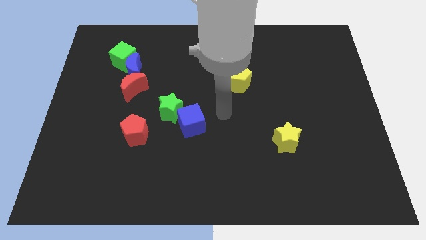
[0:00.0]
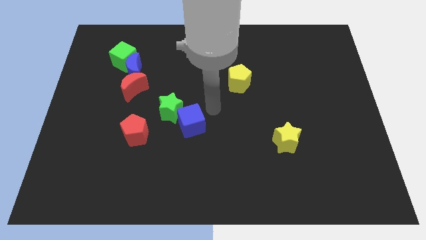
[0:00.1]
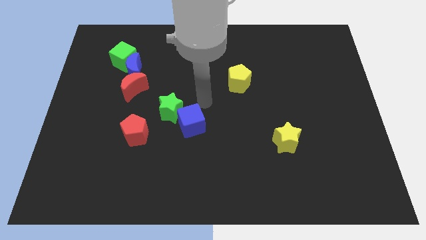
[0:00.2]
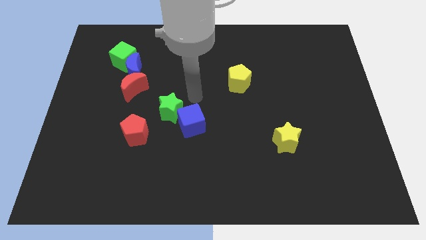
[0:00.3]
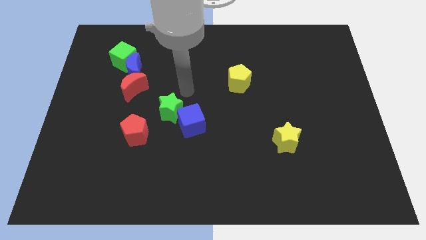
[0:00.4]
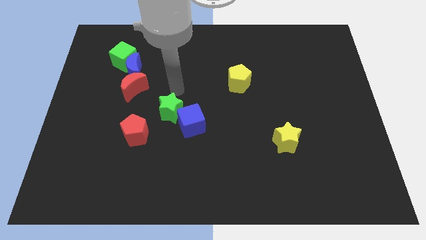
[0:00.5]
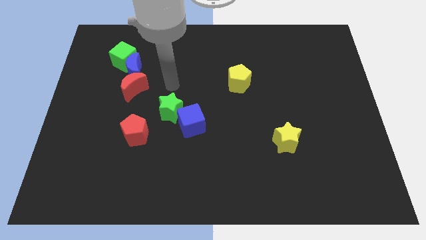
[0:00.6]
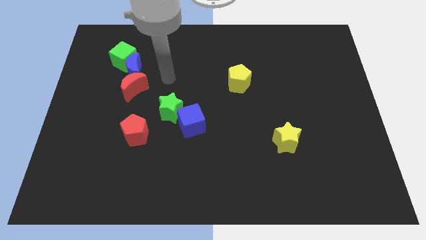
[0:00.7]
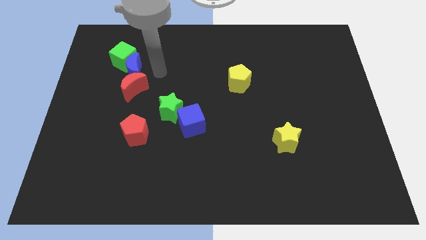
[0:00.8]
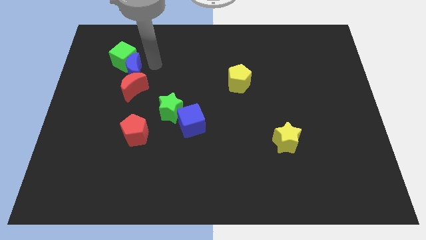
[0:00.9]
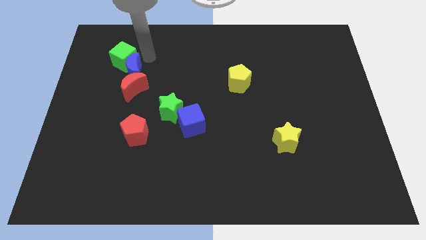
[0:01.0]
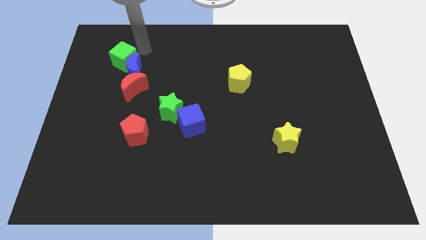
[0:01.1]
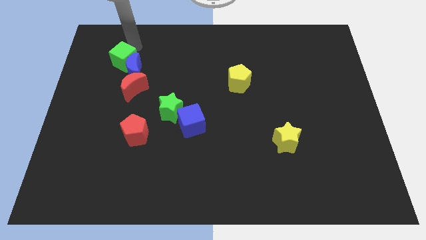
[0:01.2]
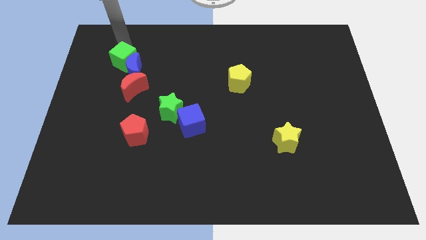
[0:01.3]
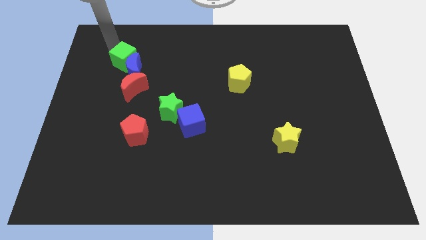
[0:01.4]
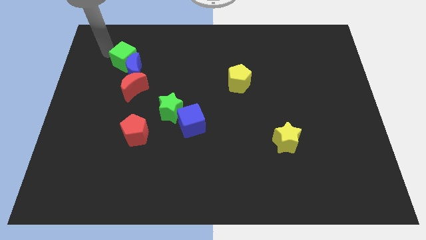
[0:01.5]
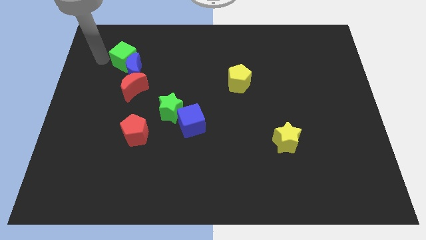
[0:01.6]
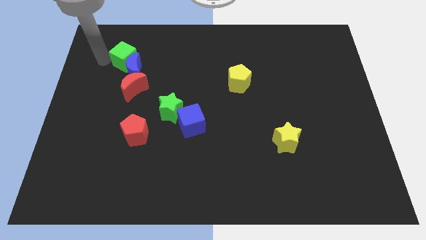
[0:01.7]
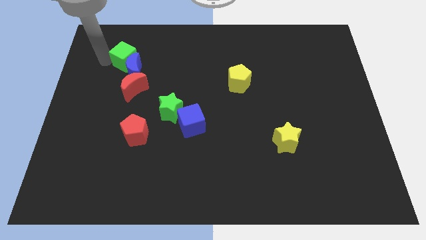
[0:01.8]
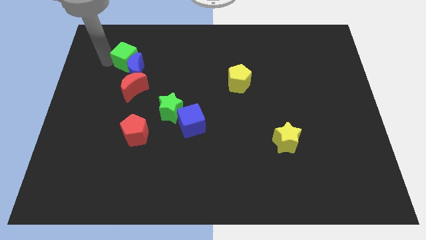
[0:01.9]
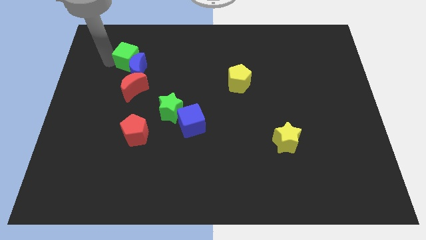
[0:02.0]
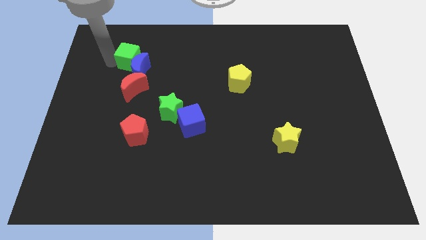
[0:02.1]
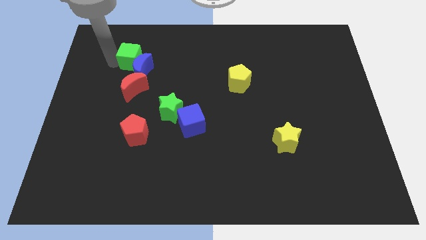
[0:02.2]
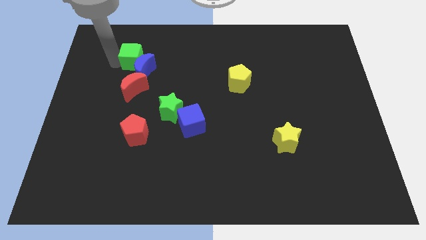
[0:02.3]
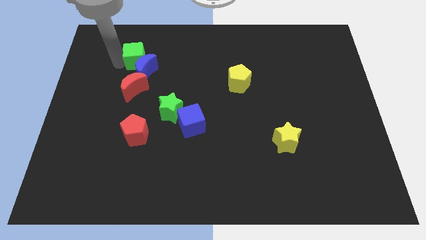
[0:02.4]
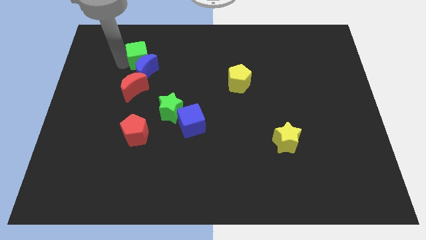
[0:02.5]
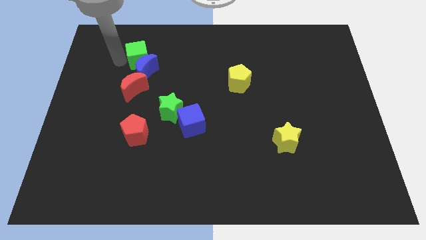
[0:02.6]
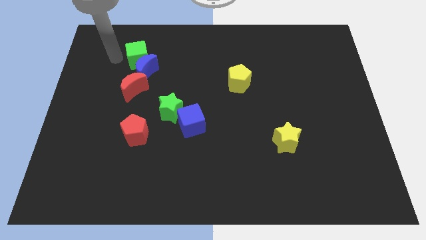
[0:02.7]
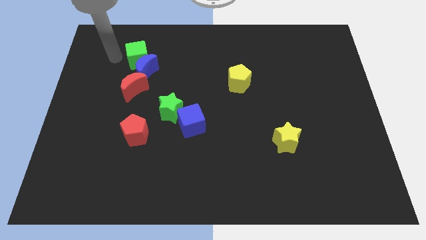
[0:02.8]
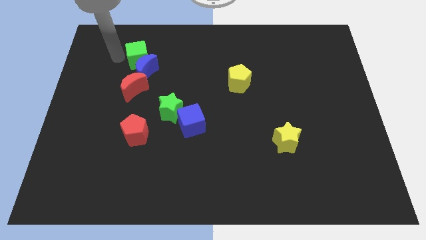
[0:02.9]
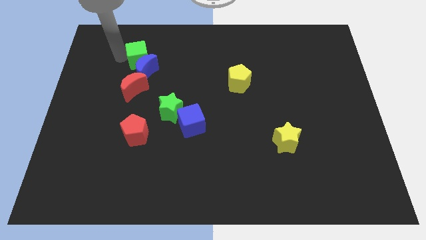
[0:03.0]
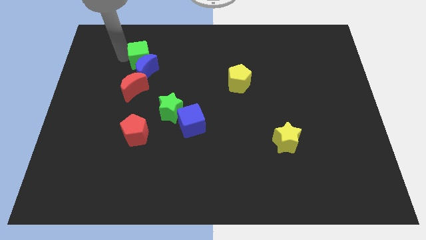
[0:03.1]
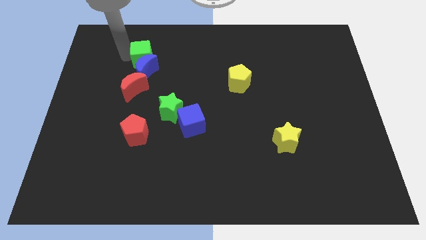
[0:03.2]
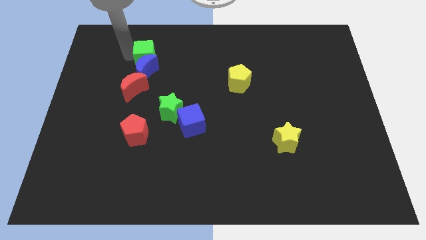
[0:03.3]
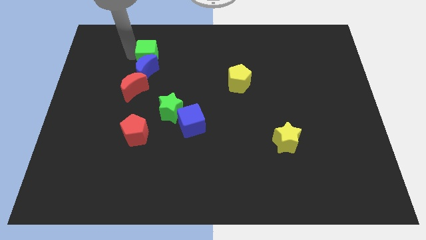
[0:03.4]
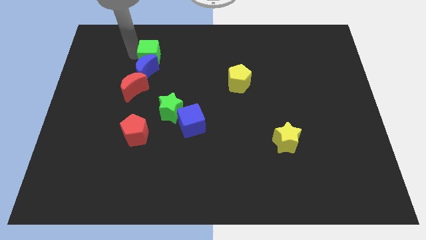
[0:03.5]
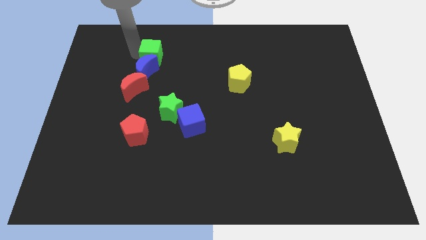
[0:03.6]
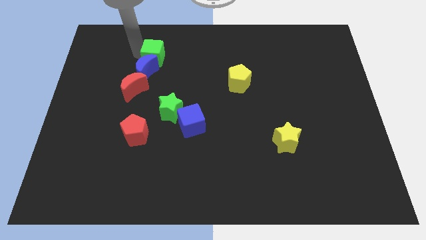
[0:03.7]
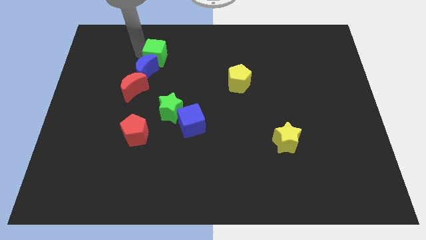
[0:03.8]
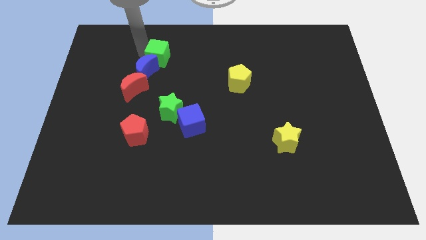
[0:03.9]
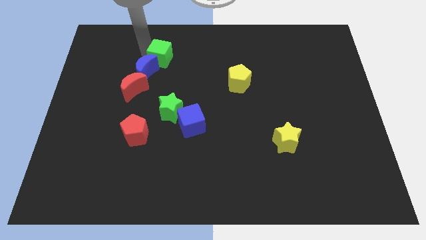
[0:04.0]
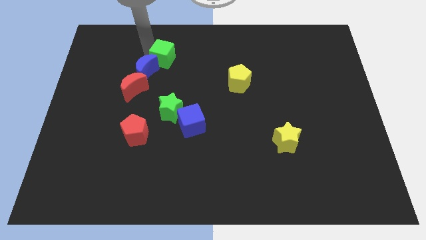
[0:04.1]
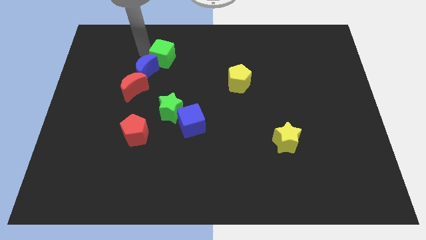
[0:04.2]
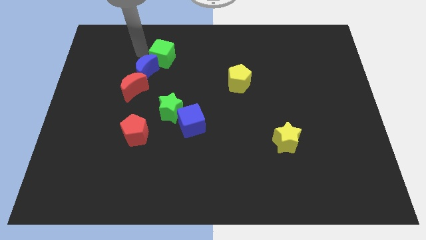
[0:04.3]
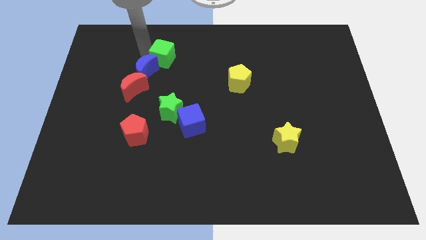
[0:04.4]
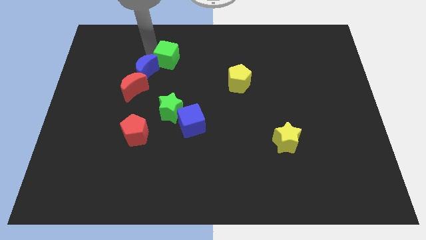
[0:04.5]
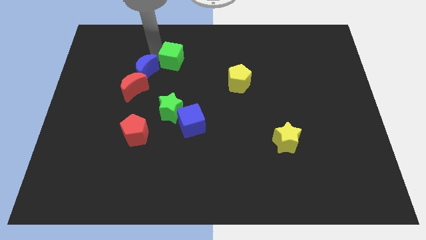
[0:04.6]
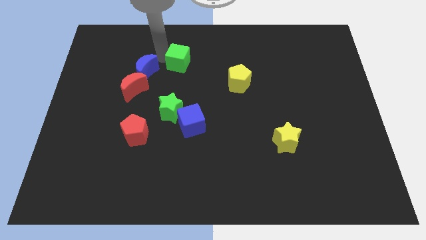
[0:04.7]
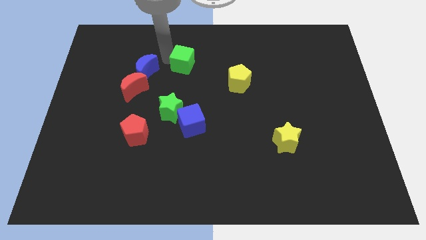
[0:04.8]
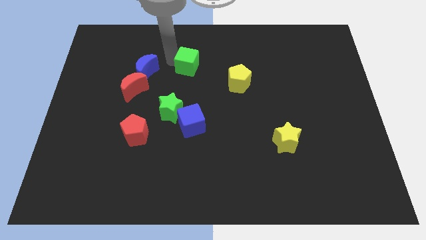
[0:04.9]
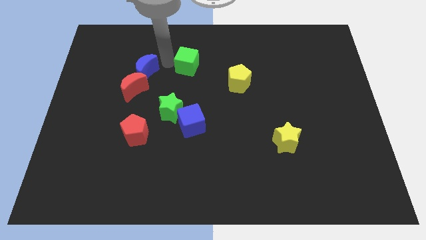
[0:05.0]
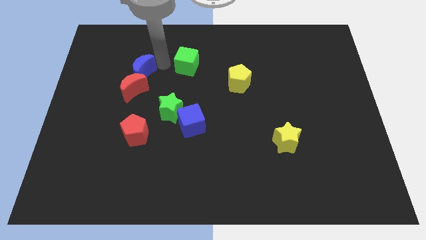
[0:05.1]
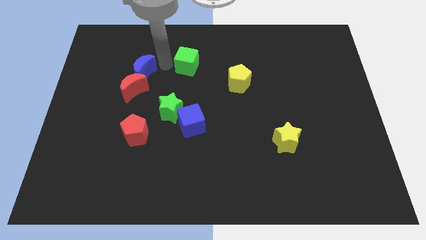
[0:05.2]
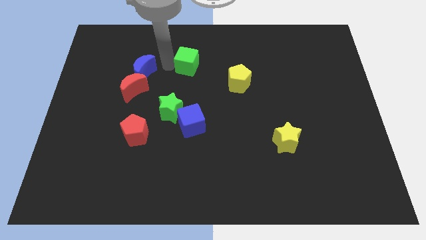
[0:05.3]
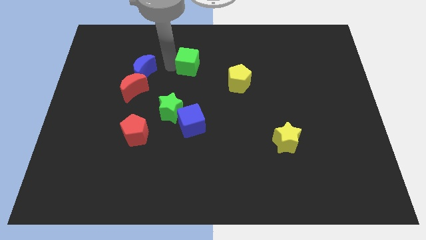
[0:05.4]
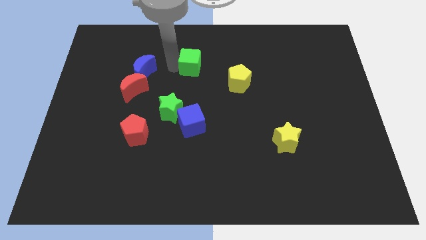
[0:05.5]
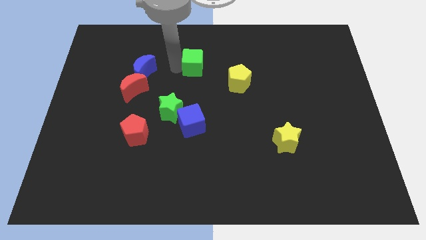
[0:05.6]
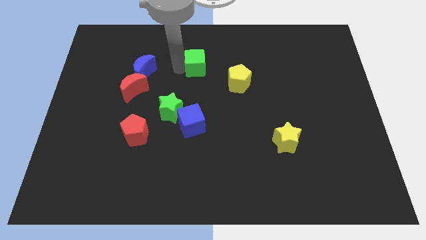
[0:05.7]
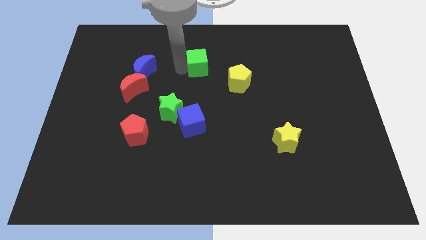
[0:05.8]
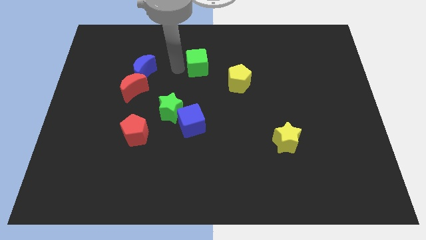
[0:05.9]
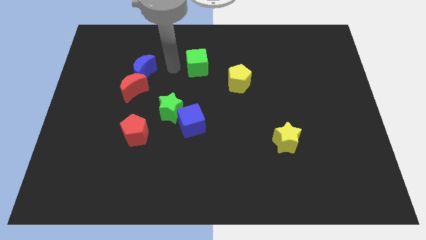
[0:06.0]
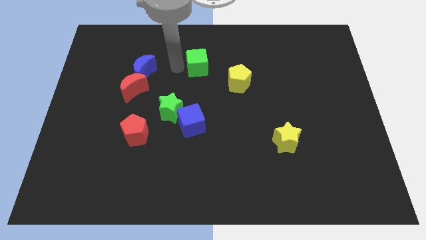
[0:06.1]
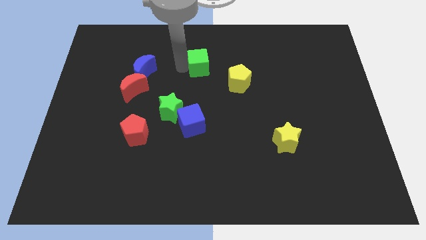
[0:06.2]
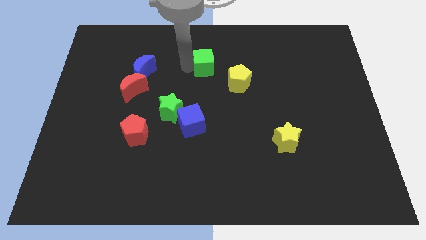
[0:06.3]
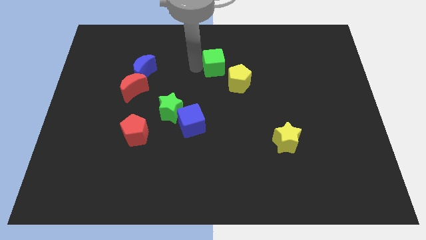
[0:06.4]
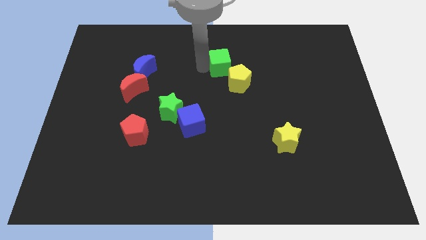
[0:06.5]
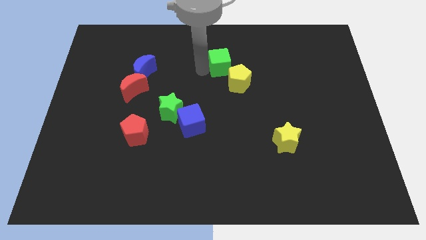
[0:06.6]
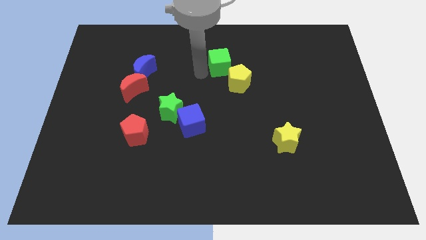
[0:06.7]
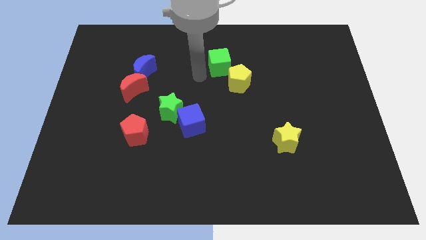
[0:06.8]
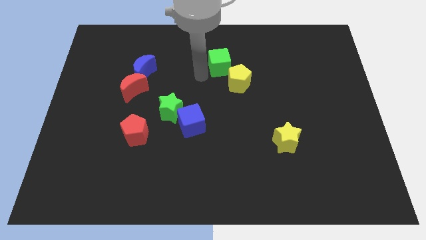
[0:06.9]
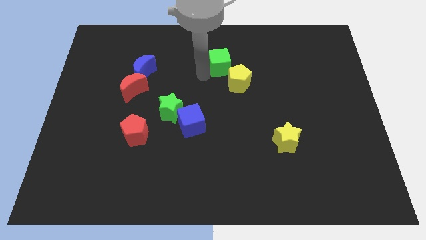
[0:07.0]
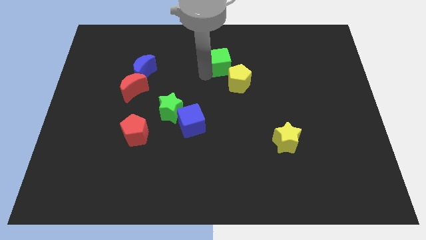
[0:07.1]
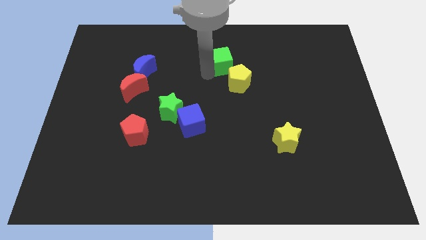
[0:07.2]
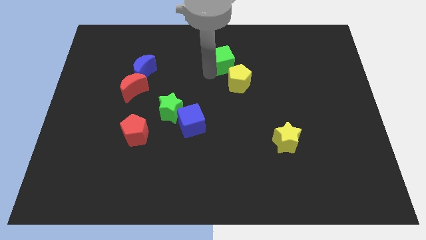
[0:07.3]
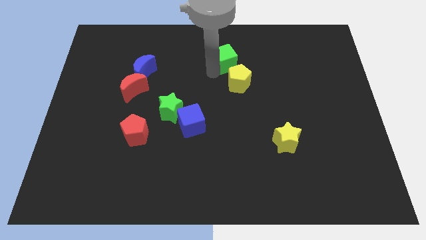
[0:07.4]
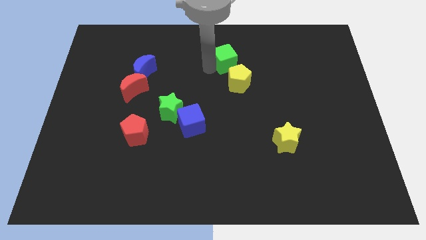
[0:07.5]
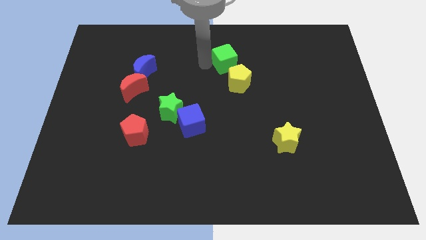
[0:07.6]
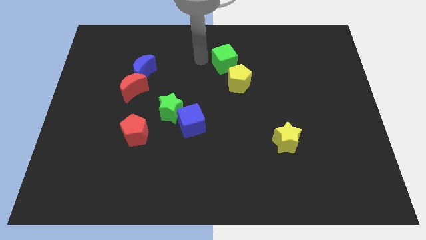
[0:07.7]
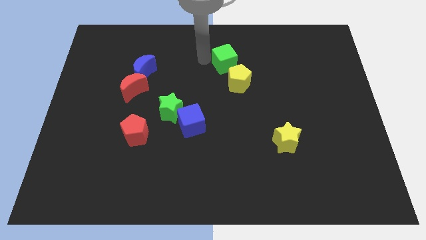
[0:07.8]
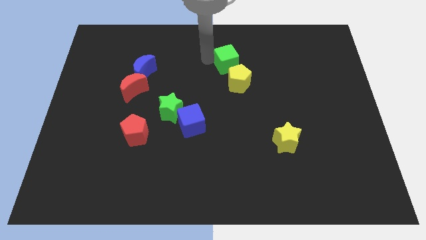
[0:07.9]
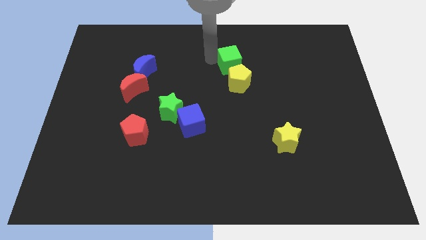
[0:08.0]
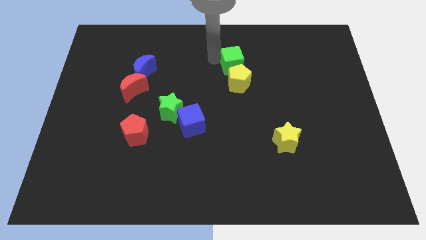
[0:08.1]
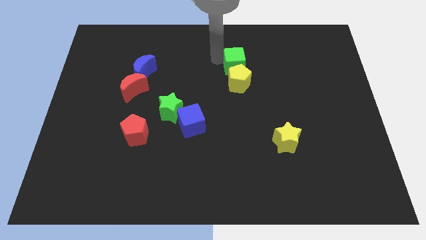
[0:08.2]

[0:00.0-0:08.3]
put the green cube to the top right side of the yellow pentagon
